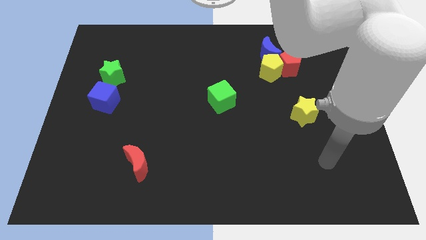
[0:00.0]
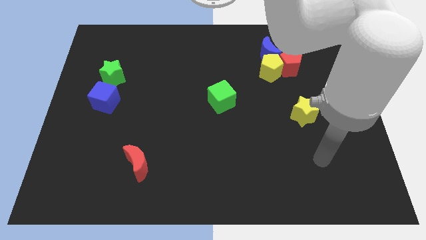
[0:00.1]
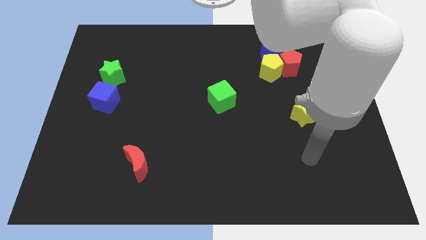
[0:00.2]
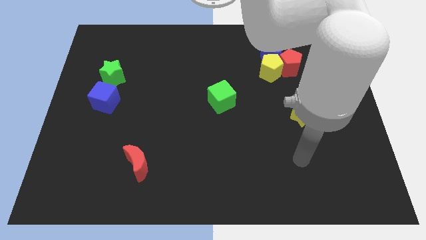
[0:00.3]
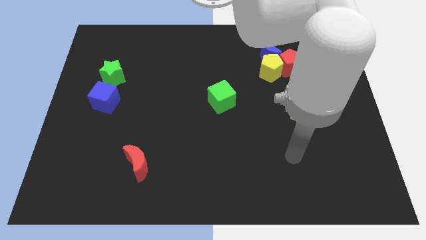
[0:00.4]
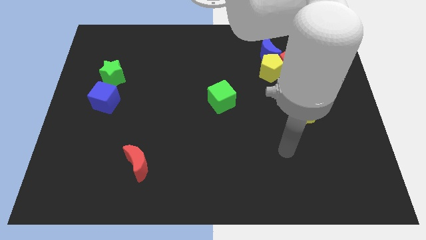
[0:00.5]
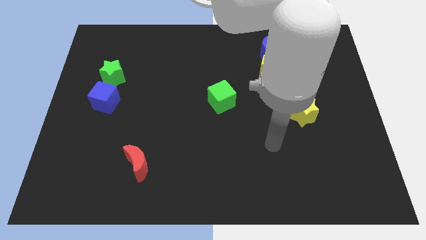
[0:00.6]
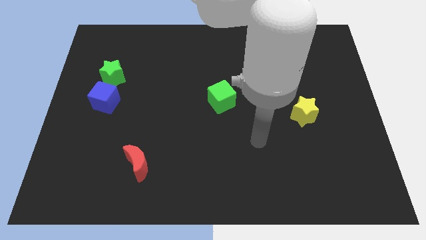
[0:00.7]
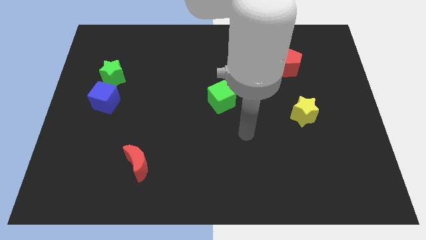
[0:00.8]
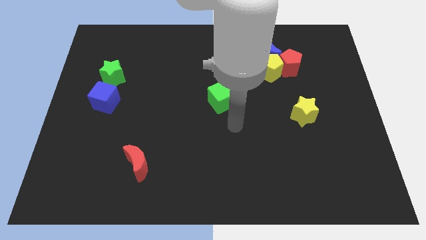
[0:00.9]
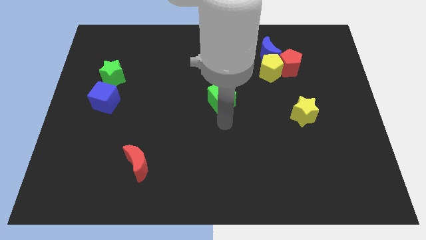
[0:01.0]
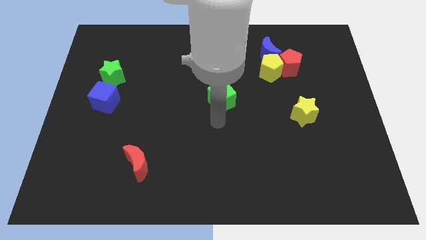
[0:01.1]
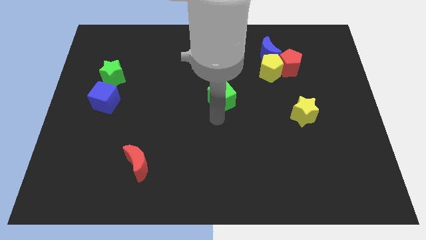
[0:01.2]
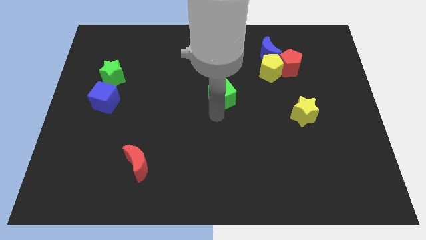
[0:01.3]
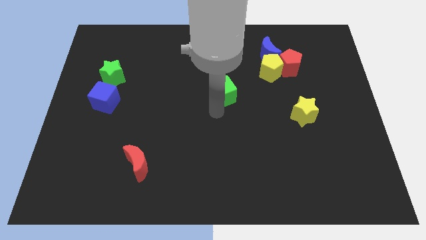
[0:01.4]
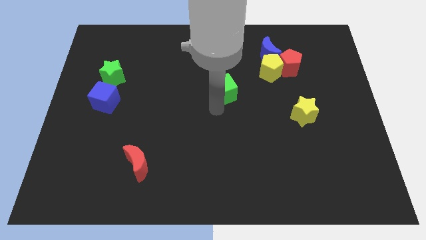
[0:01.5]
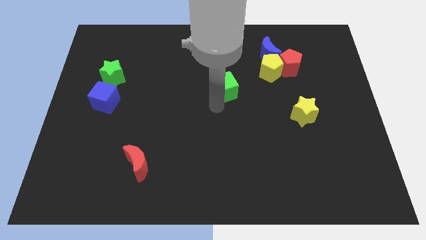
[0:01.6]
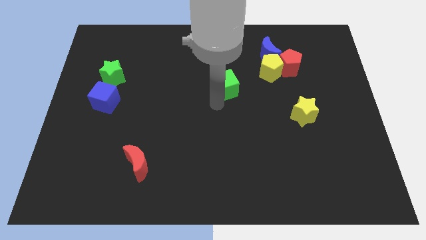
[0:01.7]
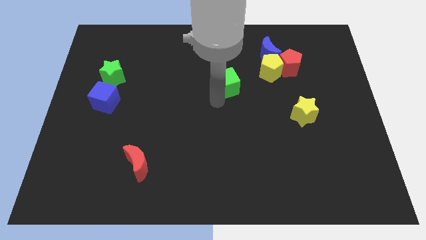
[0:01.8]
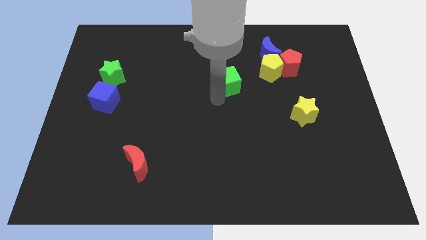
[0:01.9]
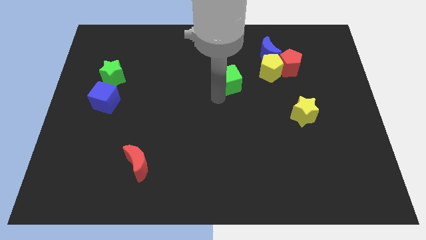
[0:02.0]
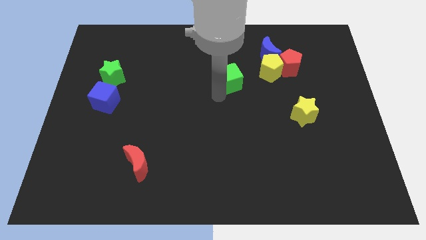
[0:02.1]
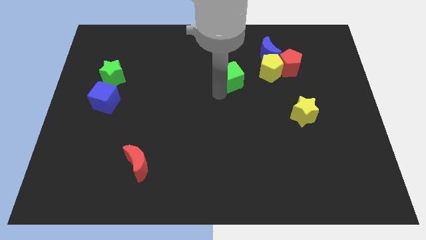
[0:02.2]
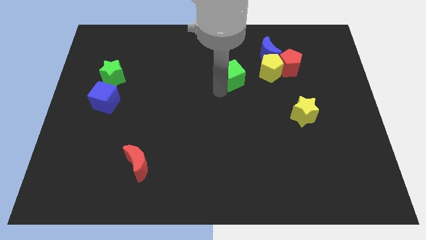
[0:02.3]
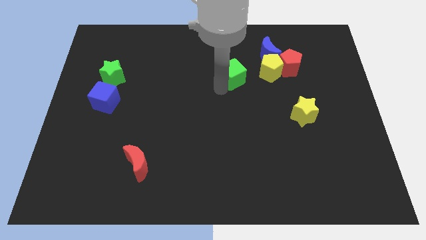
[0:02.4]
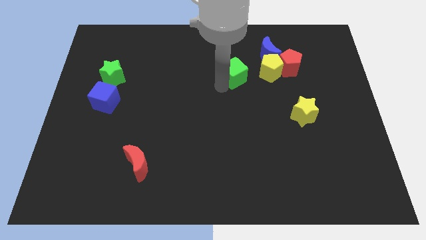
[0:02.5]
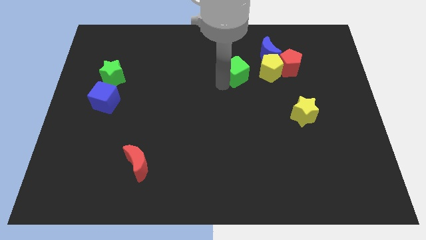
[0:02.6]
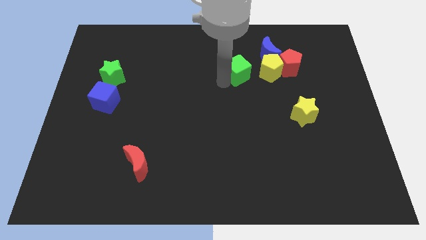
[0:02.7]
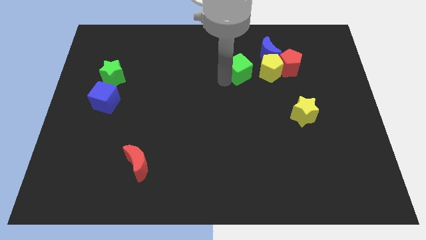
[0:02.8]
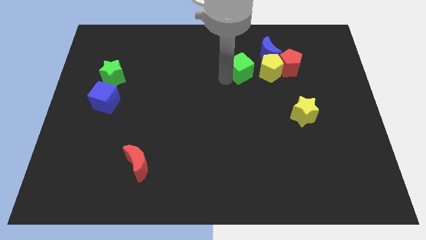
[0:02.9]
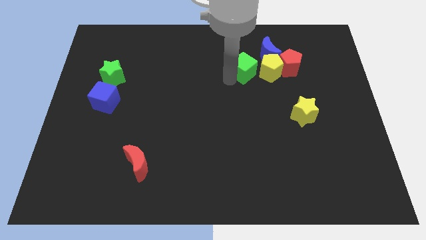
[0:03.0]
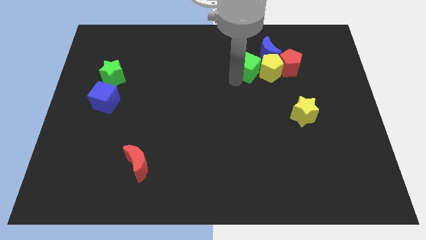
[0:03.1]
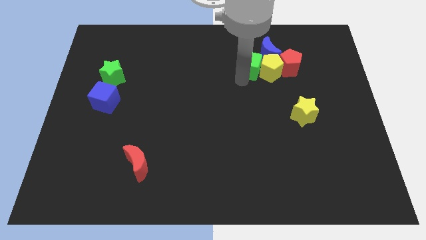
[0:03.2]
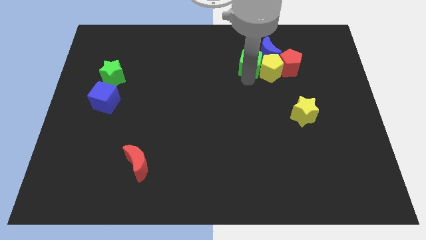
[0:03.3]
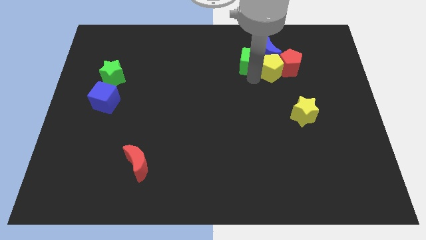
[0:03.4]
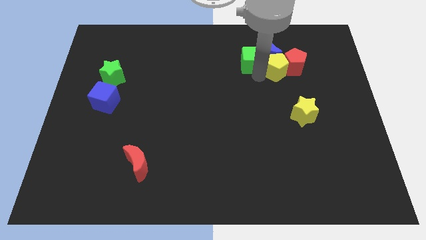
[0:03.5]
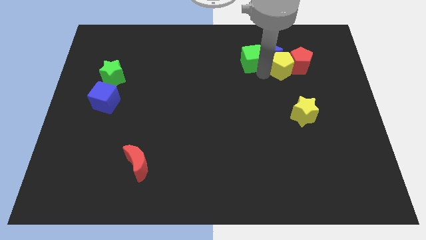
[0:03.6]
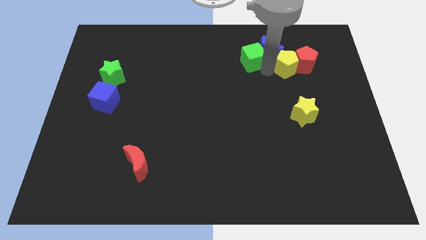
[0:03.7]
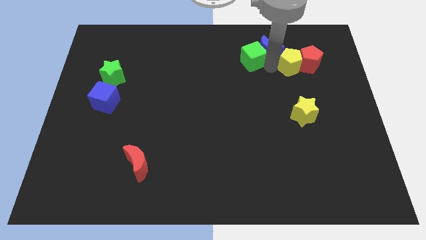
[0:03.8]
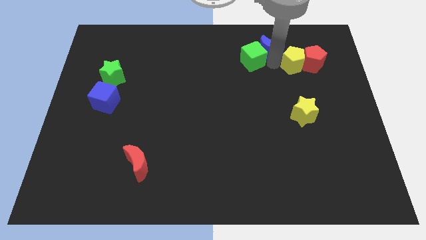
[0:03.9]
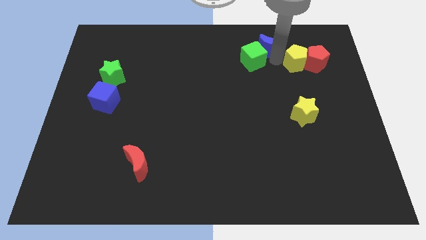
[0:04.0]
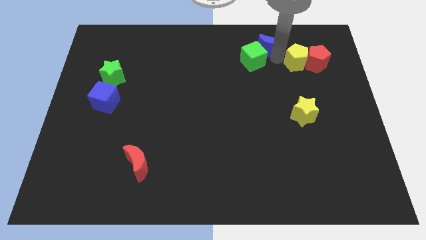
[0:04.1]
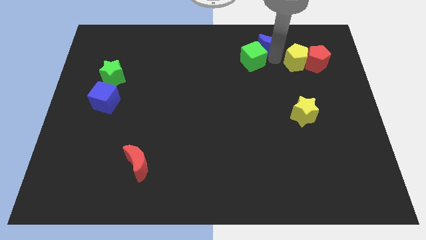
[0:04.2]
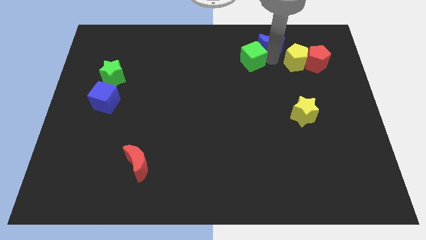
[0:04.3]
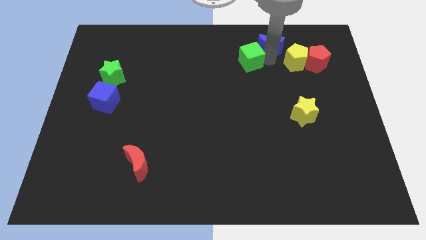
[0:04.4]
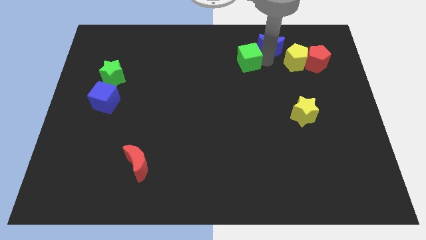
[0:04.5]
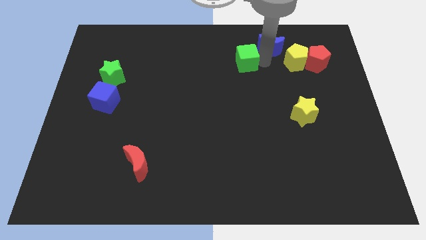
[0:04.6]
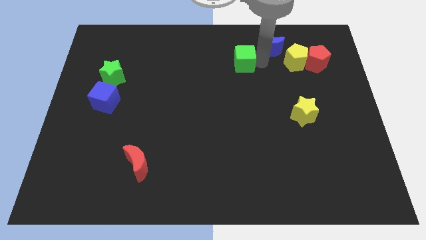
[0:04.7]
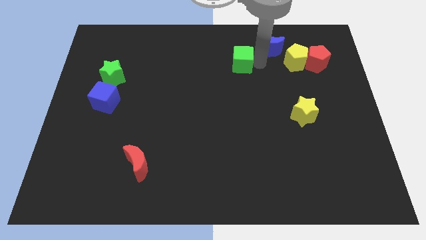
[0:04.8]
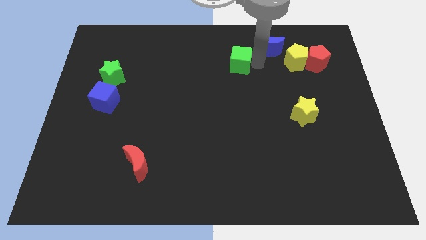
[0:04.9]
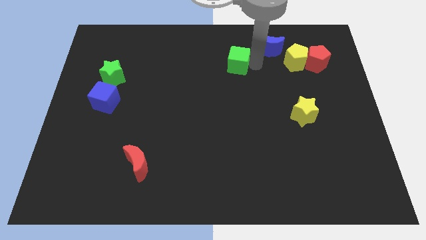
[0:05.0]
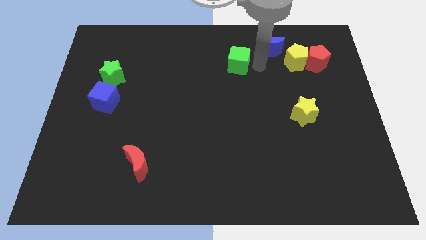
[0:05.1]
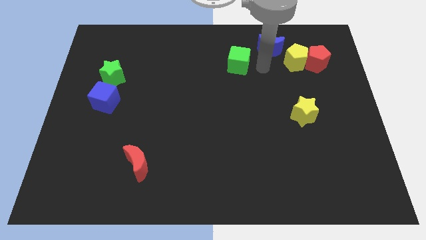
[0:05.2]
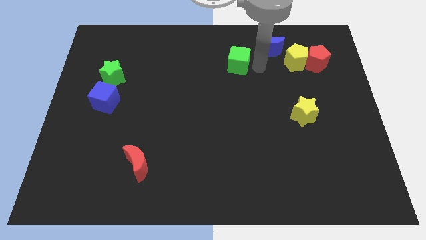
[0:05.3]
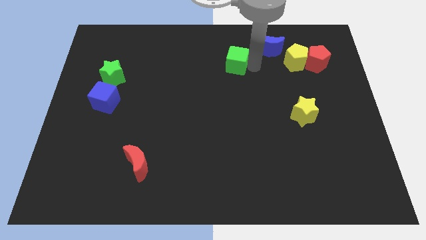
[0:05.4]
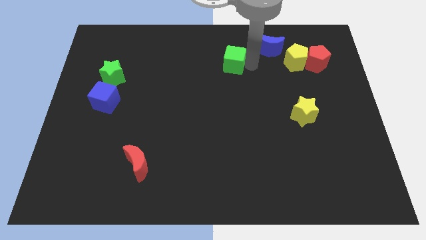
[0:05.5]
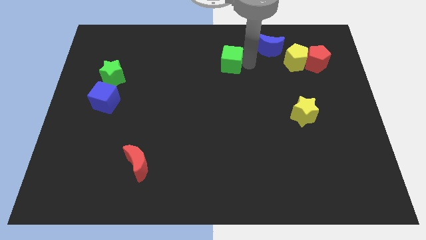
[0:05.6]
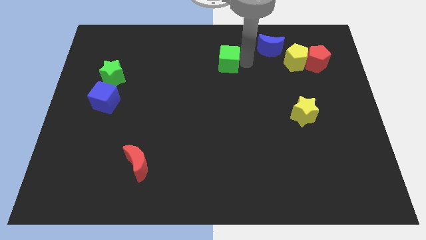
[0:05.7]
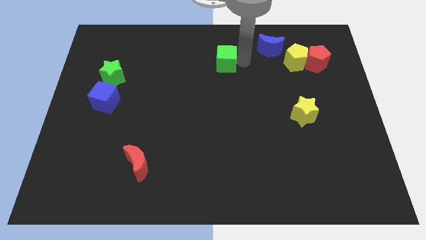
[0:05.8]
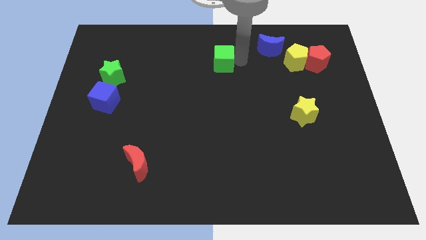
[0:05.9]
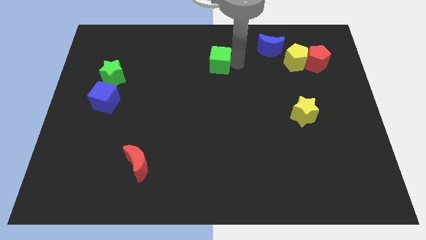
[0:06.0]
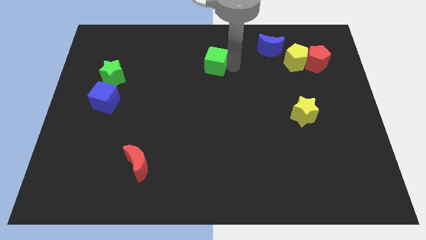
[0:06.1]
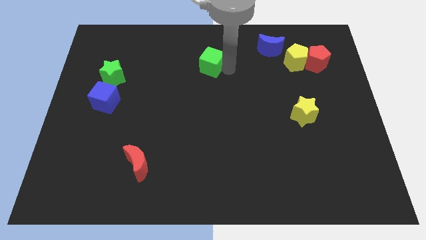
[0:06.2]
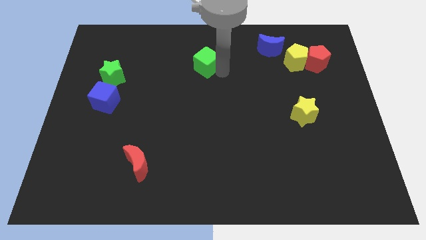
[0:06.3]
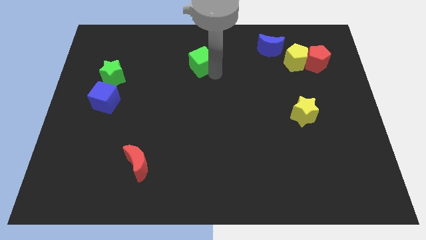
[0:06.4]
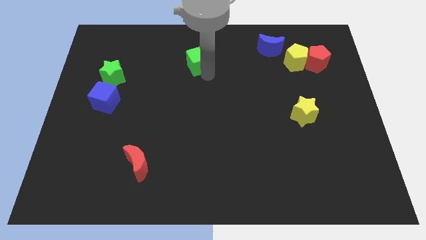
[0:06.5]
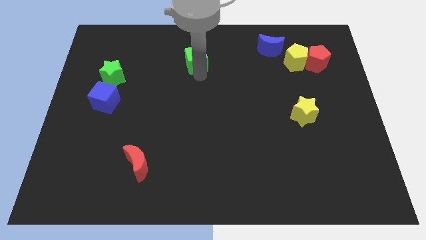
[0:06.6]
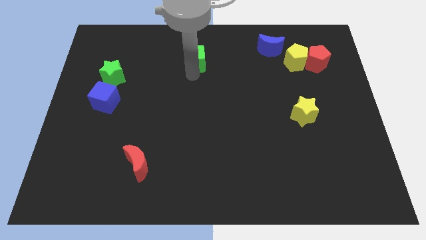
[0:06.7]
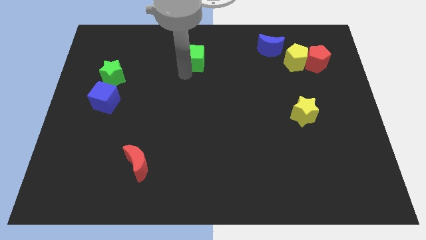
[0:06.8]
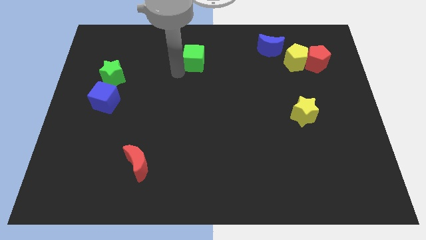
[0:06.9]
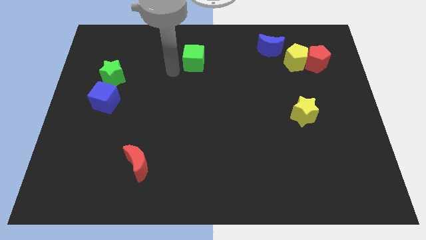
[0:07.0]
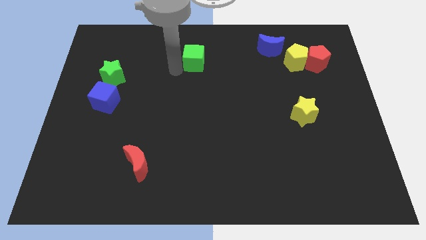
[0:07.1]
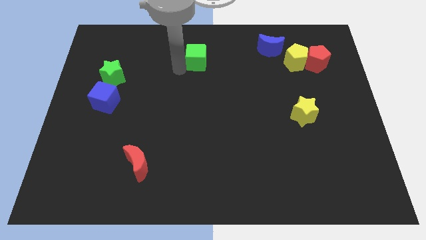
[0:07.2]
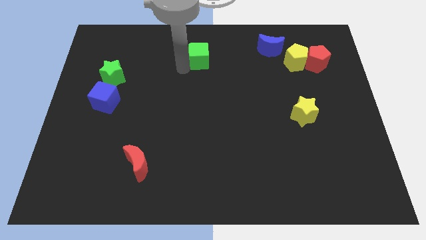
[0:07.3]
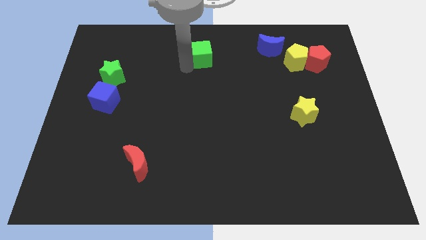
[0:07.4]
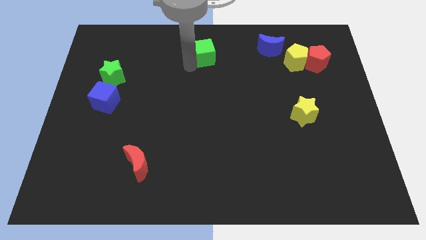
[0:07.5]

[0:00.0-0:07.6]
push the green cube to the top side
